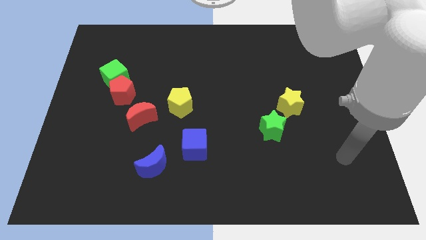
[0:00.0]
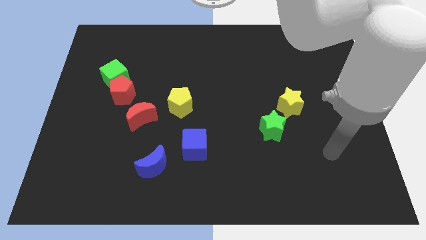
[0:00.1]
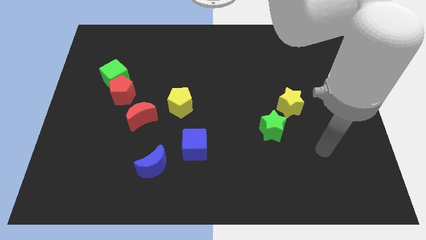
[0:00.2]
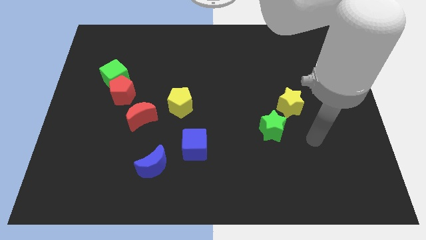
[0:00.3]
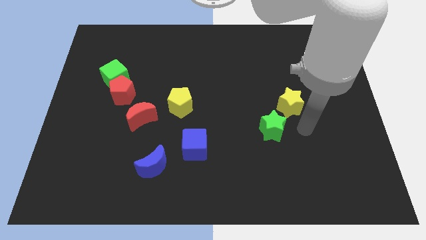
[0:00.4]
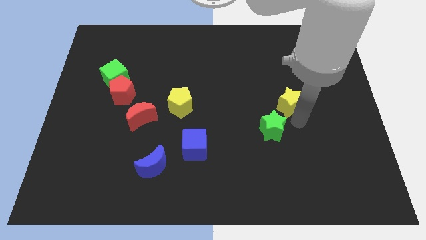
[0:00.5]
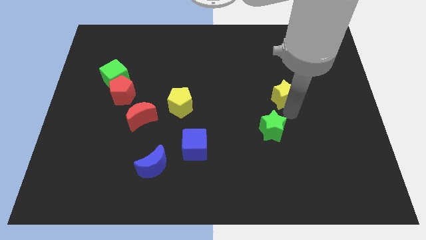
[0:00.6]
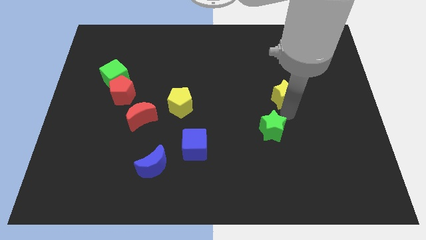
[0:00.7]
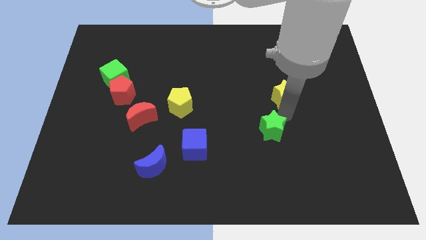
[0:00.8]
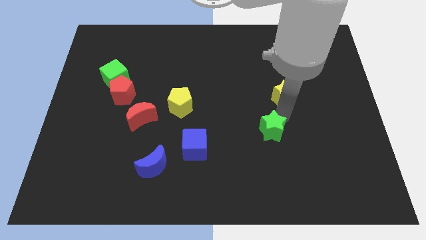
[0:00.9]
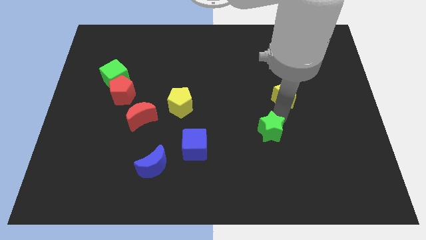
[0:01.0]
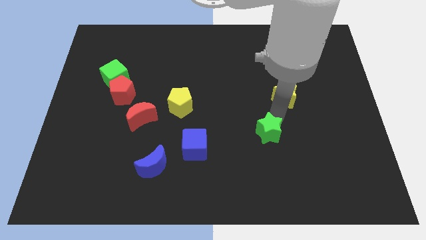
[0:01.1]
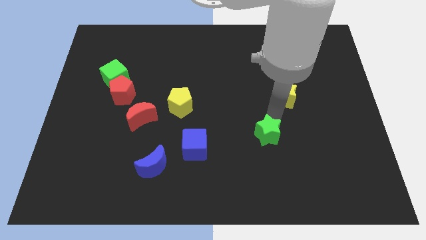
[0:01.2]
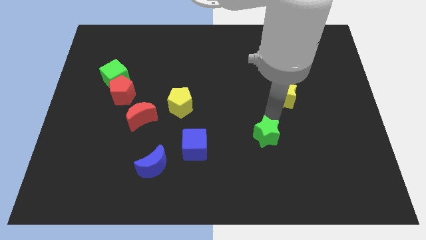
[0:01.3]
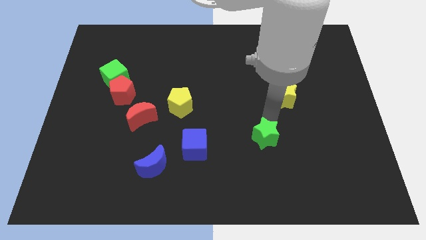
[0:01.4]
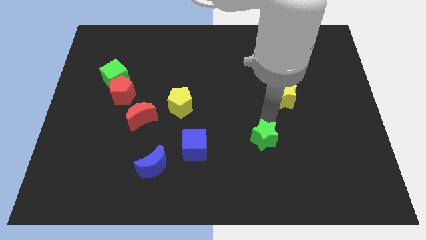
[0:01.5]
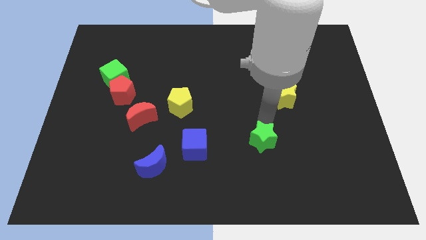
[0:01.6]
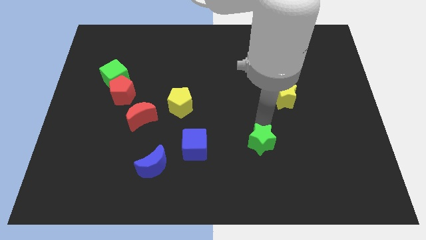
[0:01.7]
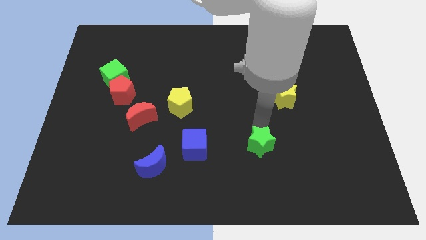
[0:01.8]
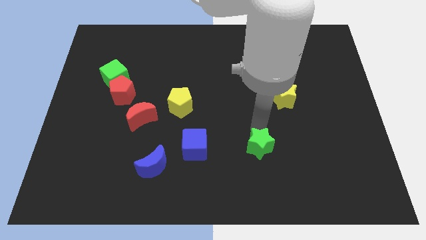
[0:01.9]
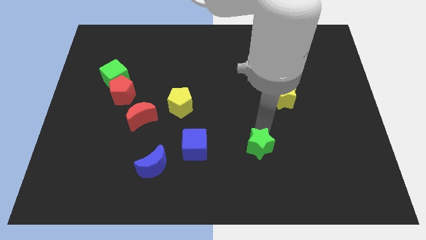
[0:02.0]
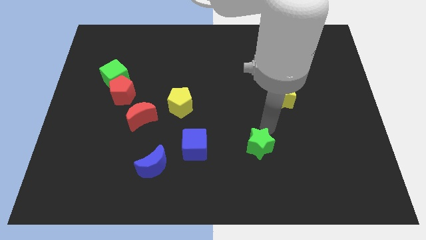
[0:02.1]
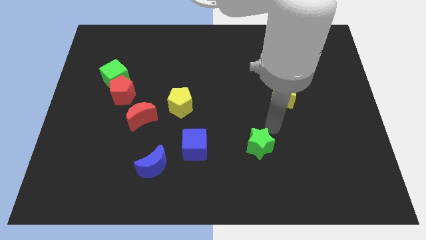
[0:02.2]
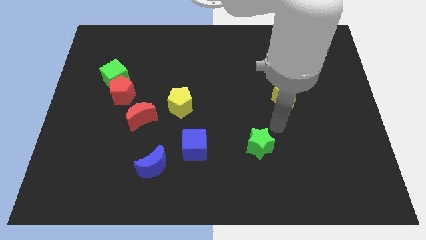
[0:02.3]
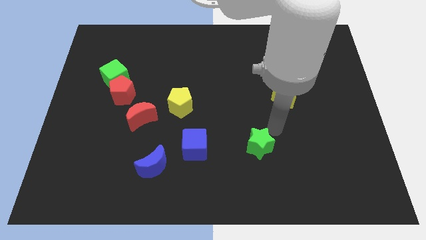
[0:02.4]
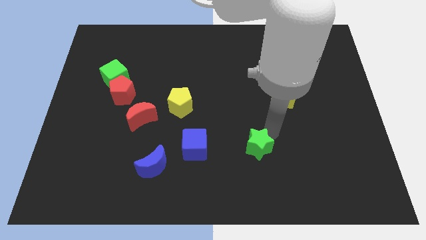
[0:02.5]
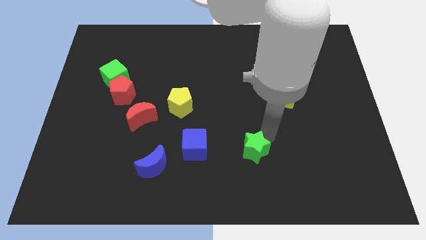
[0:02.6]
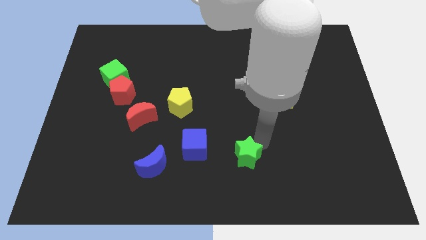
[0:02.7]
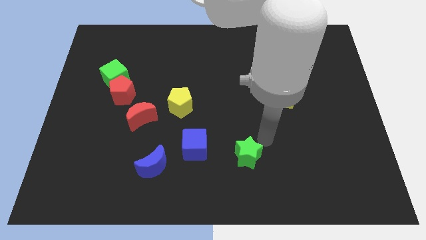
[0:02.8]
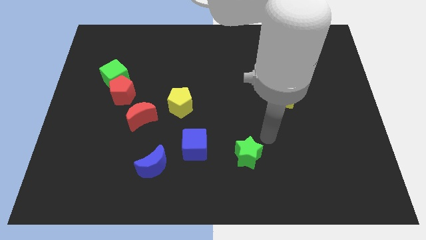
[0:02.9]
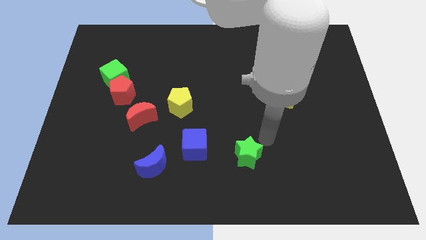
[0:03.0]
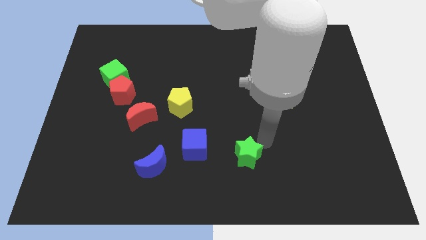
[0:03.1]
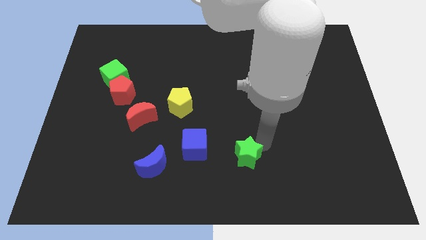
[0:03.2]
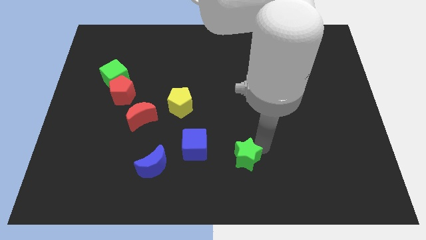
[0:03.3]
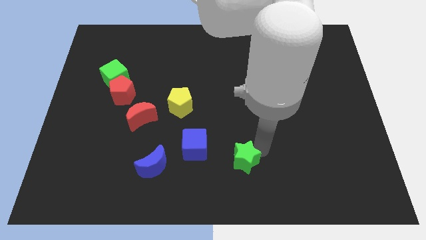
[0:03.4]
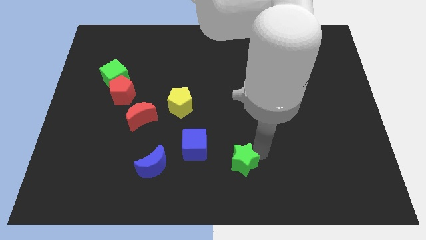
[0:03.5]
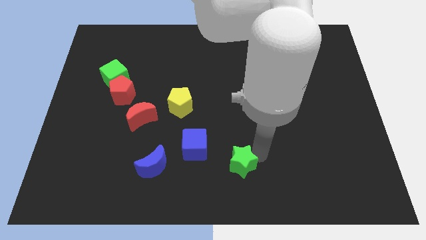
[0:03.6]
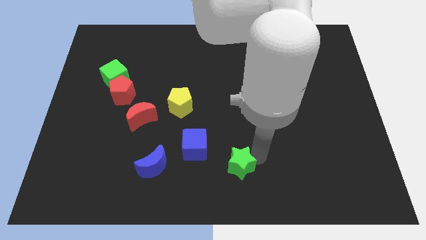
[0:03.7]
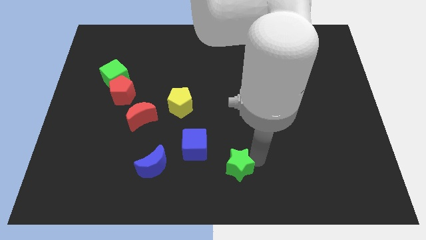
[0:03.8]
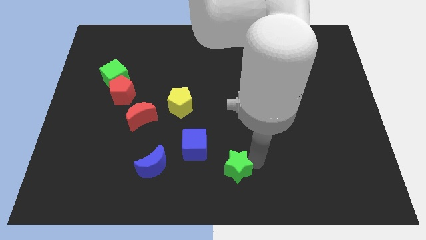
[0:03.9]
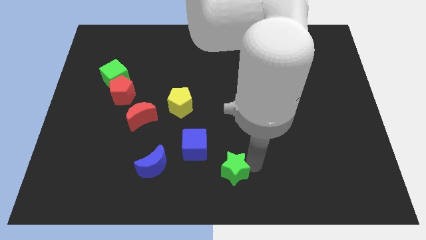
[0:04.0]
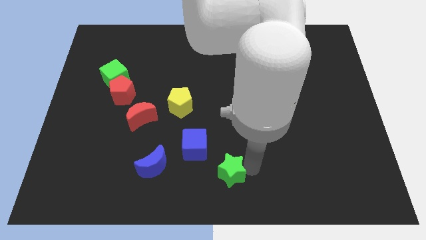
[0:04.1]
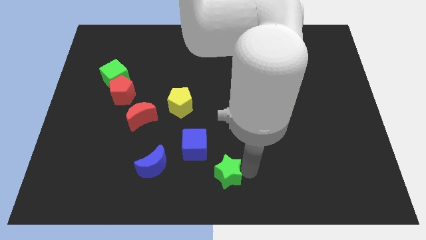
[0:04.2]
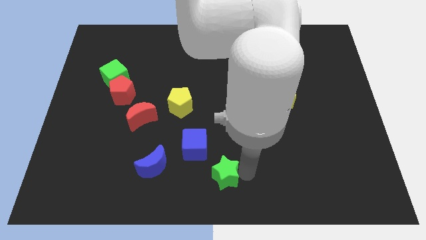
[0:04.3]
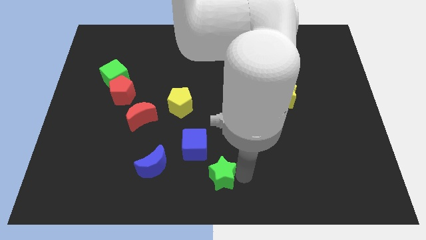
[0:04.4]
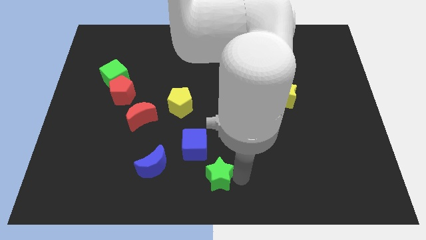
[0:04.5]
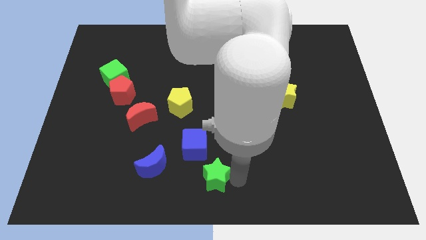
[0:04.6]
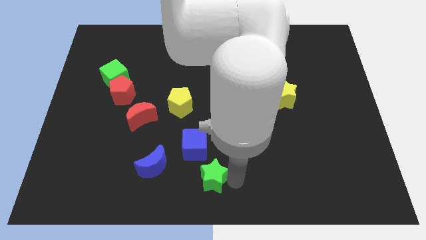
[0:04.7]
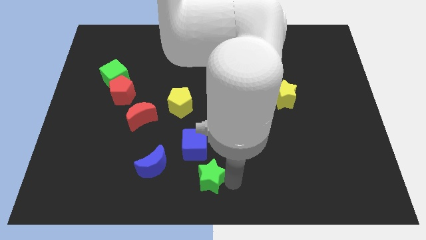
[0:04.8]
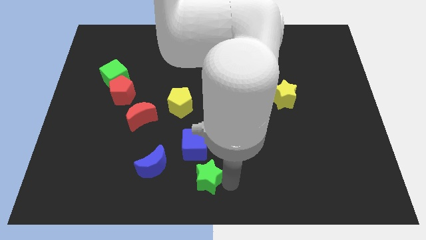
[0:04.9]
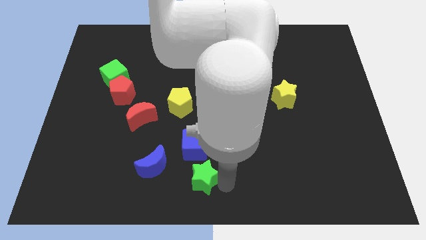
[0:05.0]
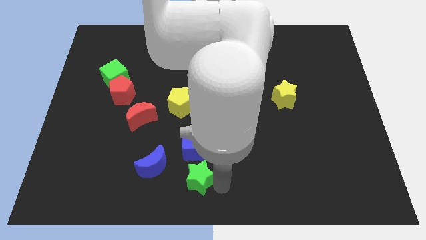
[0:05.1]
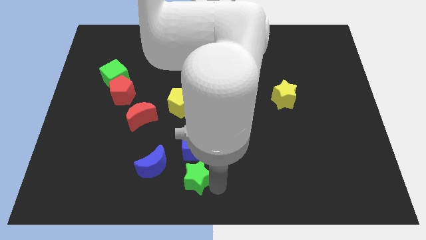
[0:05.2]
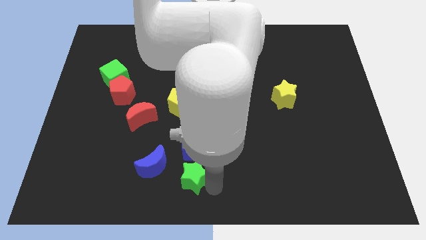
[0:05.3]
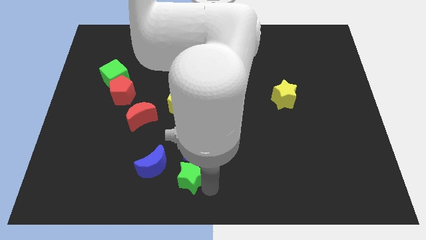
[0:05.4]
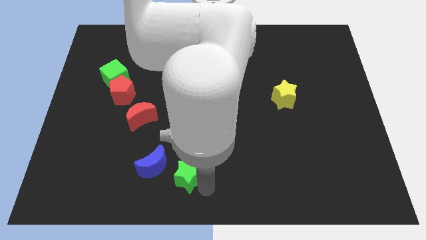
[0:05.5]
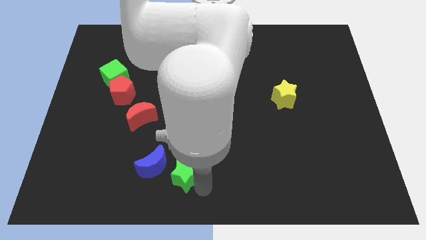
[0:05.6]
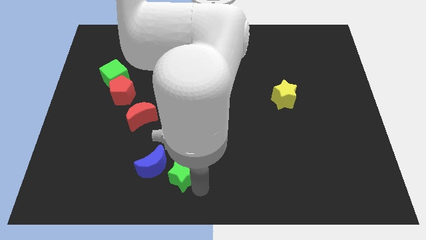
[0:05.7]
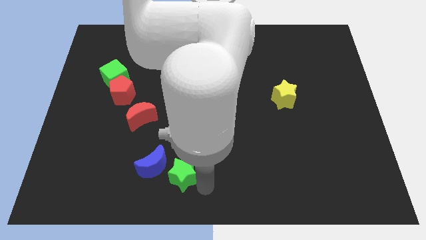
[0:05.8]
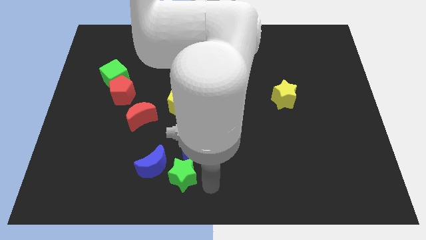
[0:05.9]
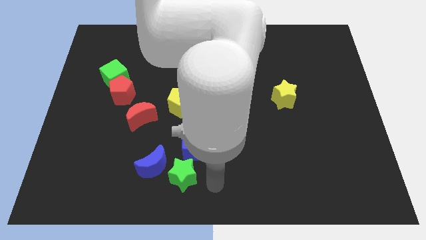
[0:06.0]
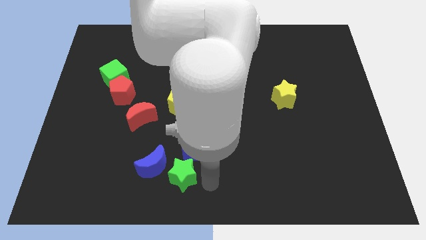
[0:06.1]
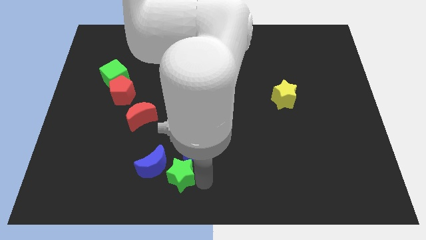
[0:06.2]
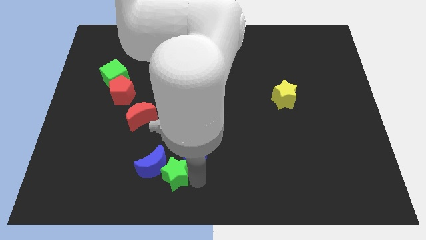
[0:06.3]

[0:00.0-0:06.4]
put the green star to the blue moon

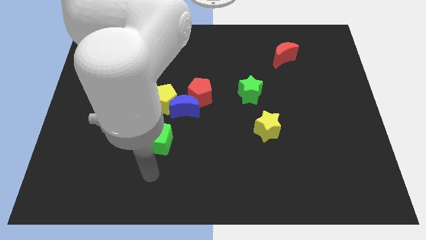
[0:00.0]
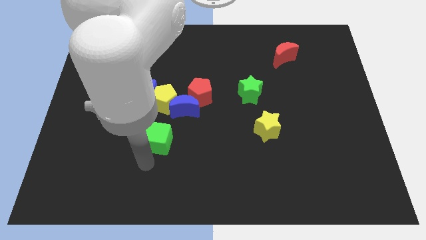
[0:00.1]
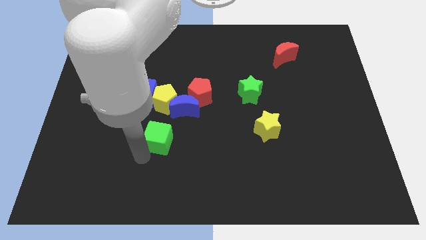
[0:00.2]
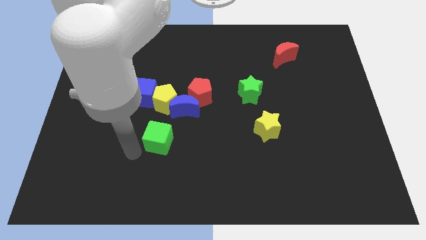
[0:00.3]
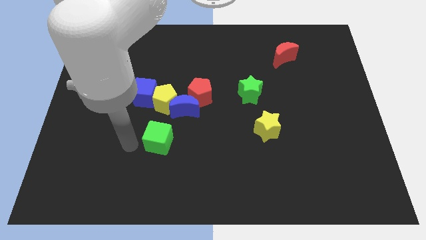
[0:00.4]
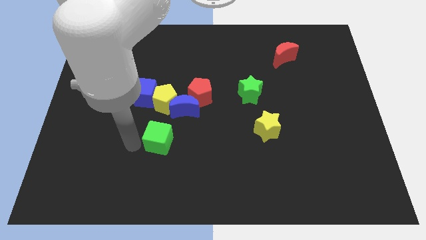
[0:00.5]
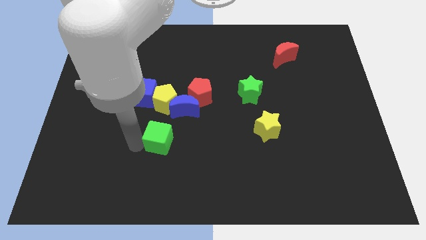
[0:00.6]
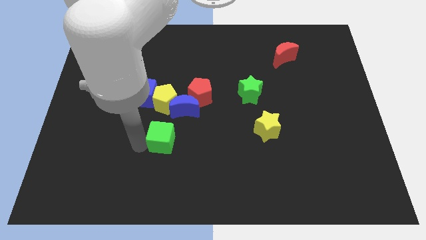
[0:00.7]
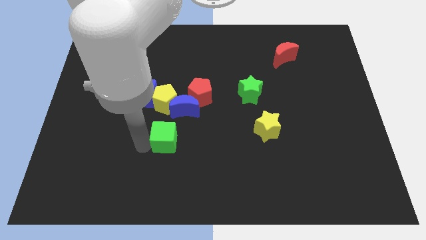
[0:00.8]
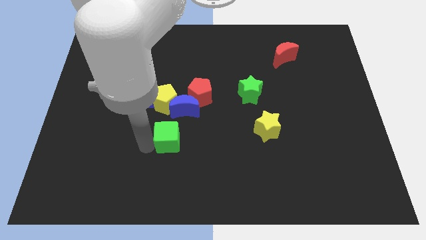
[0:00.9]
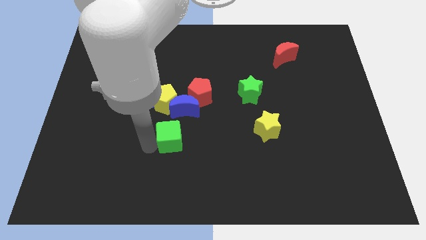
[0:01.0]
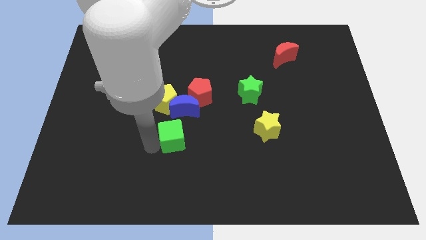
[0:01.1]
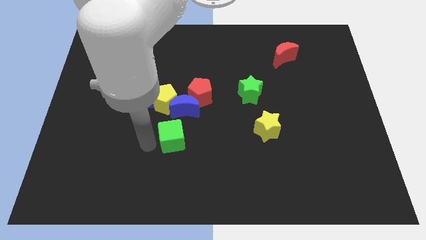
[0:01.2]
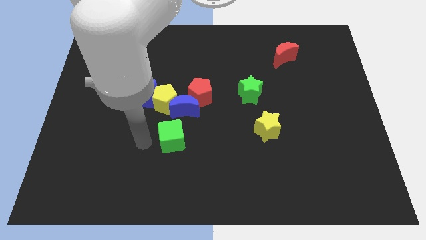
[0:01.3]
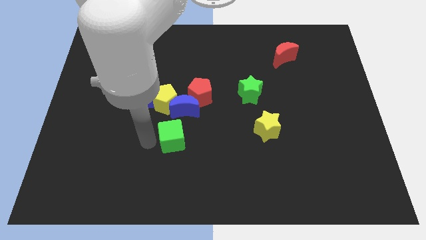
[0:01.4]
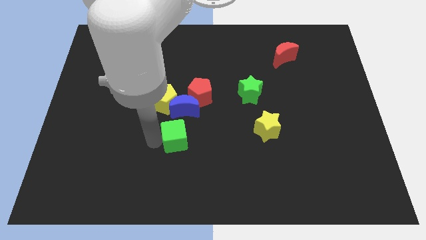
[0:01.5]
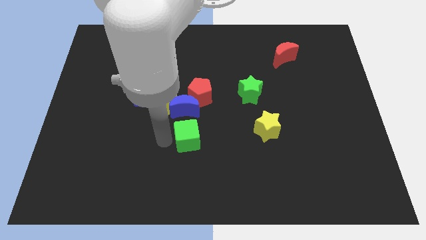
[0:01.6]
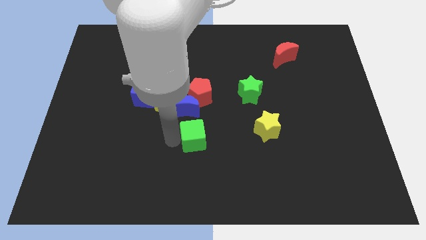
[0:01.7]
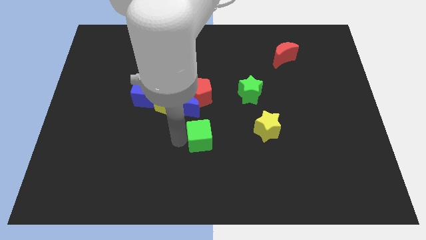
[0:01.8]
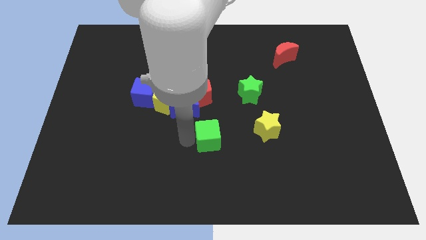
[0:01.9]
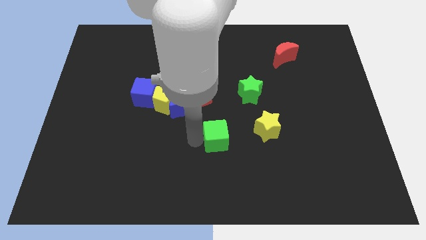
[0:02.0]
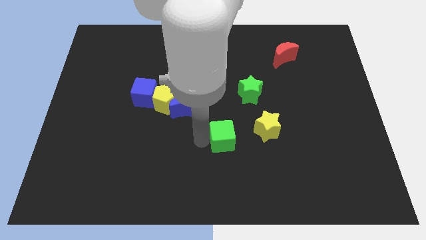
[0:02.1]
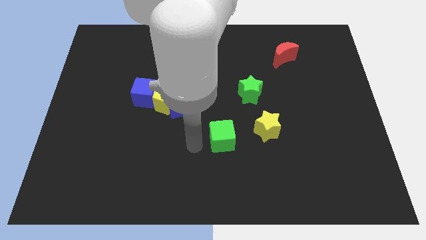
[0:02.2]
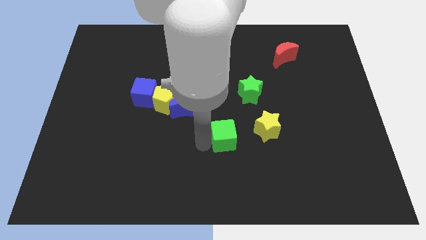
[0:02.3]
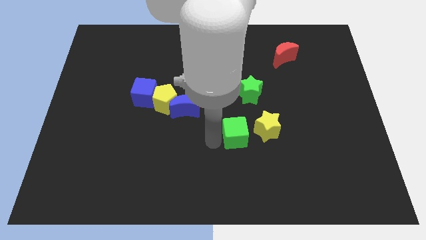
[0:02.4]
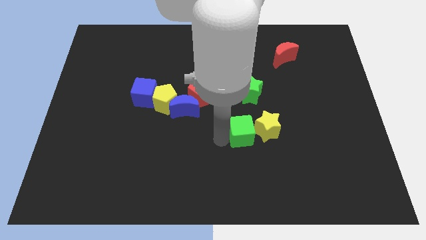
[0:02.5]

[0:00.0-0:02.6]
put the green cube to the yellow star
